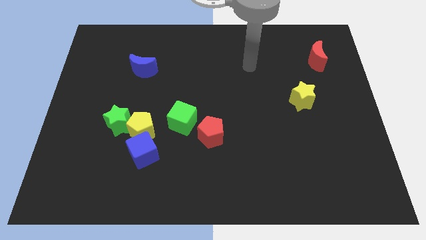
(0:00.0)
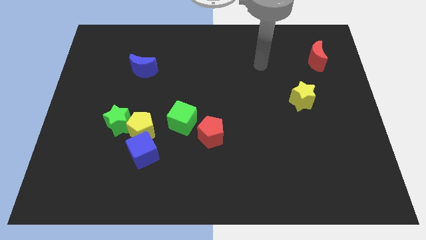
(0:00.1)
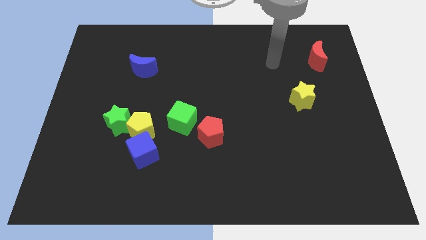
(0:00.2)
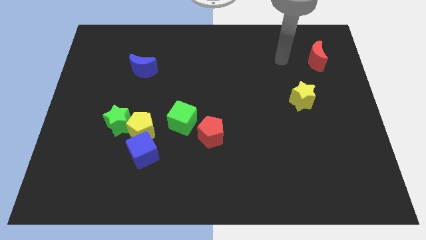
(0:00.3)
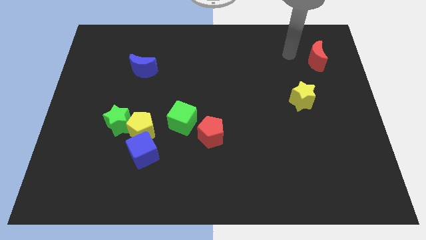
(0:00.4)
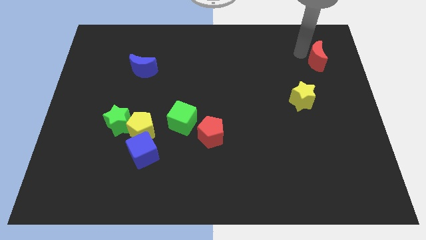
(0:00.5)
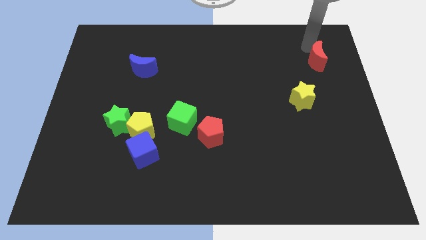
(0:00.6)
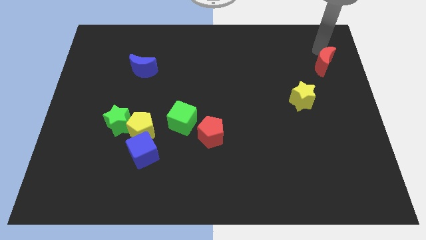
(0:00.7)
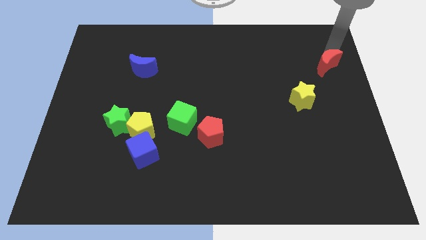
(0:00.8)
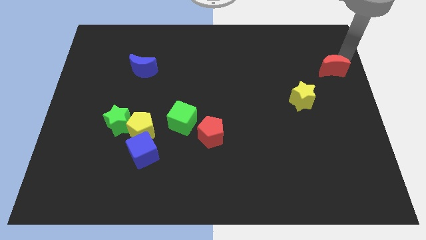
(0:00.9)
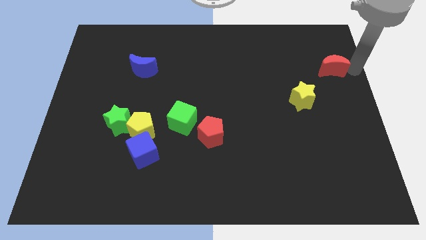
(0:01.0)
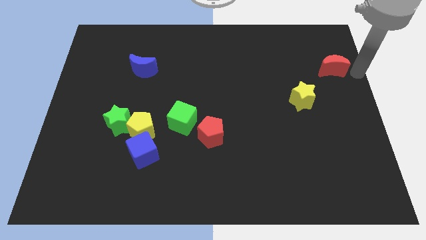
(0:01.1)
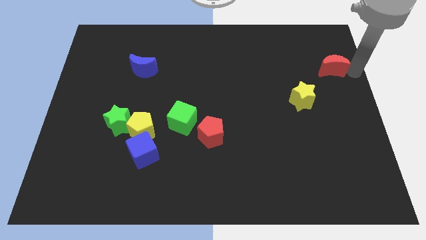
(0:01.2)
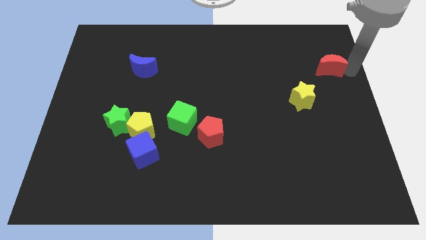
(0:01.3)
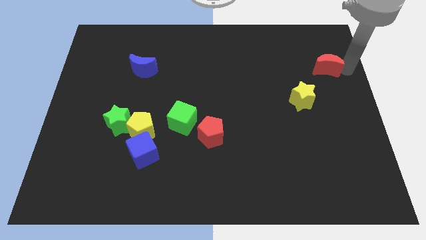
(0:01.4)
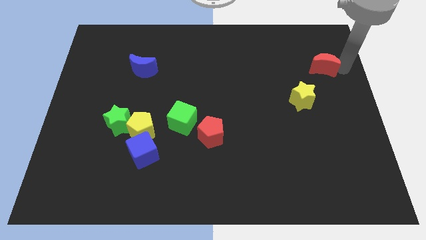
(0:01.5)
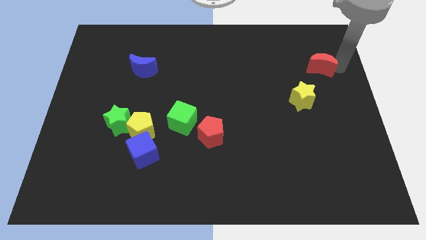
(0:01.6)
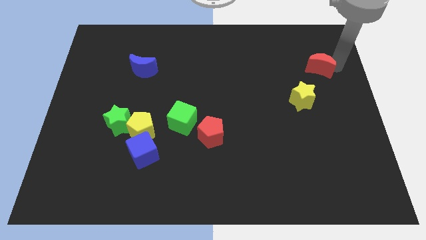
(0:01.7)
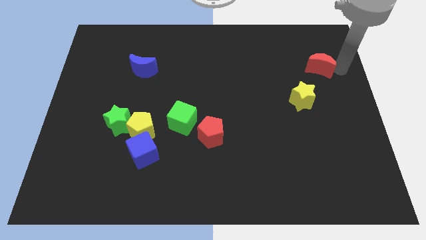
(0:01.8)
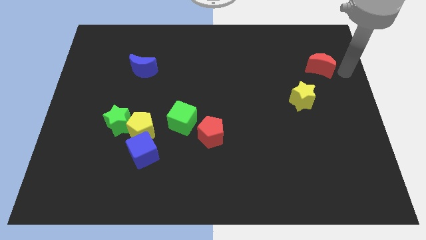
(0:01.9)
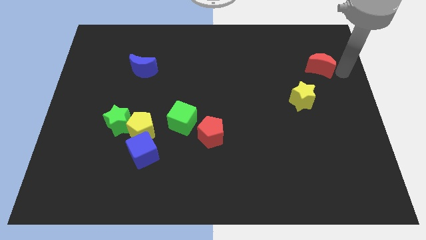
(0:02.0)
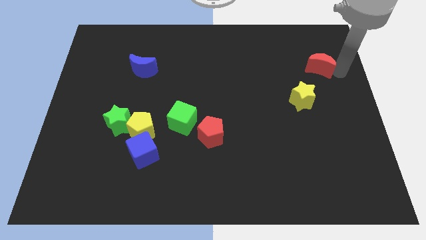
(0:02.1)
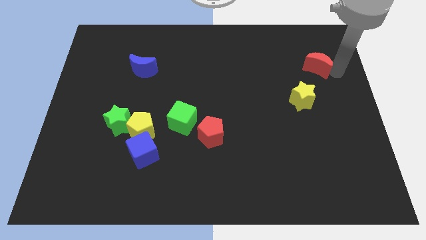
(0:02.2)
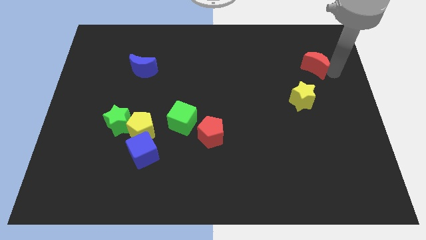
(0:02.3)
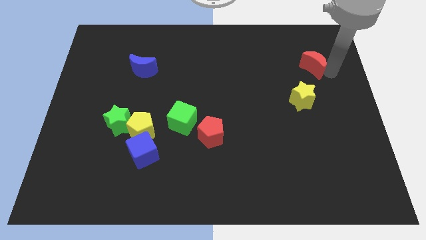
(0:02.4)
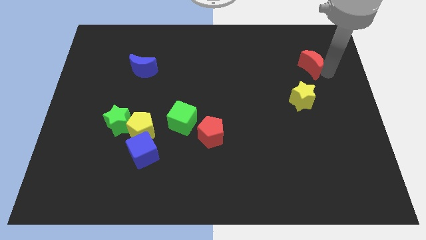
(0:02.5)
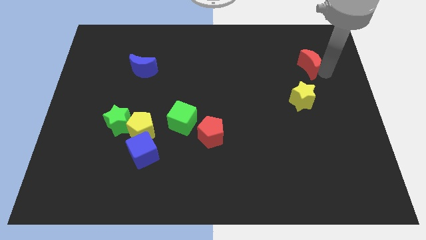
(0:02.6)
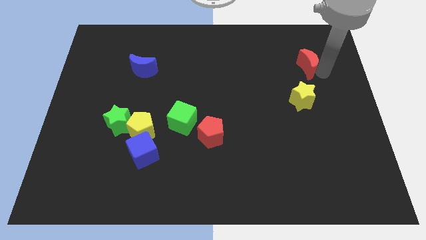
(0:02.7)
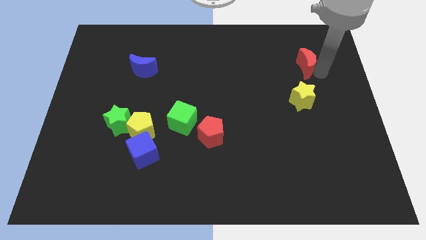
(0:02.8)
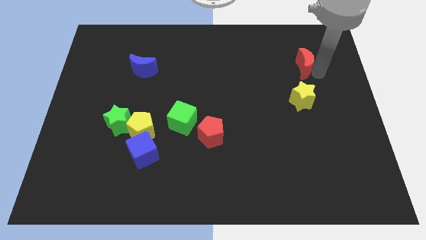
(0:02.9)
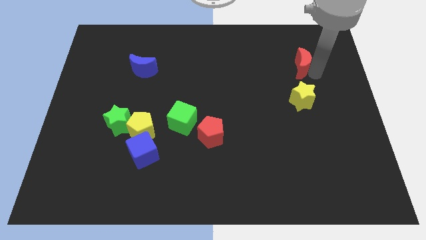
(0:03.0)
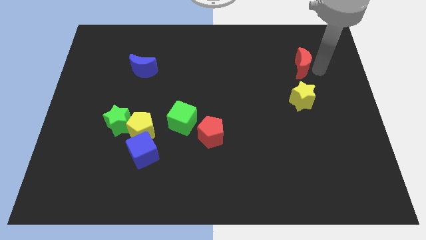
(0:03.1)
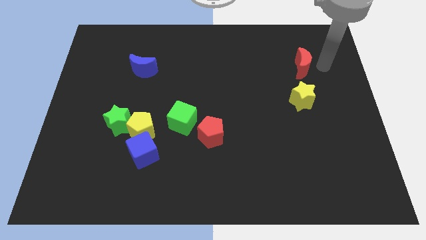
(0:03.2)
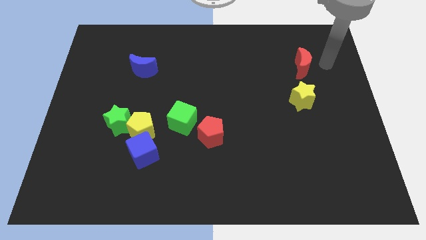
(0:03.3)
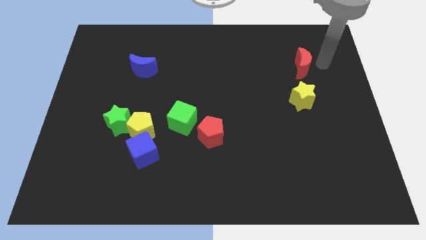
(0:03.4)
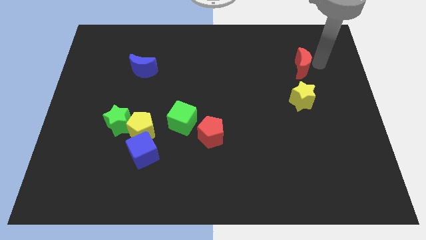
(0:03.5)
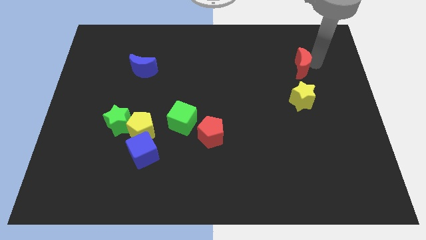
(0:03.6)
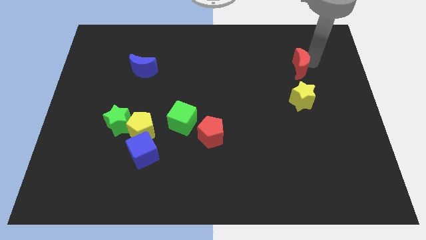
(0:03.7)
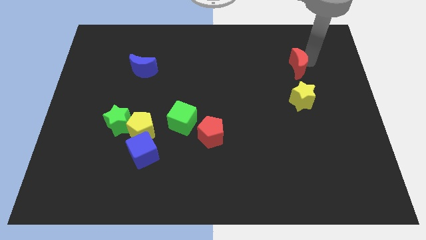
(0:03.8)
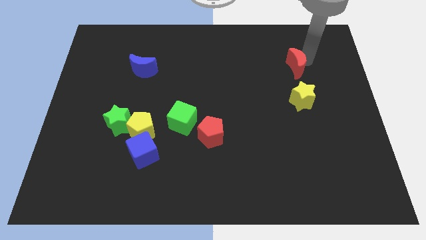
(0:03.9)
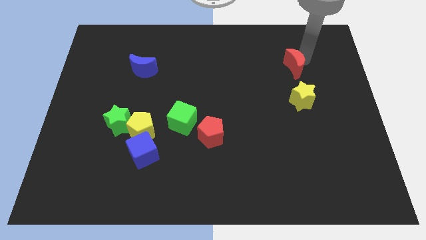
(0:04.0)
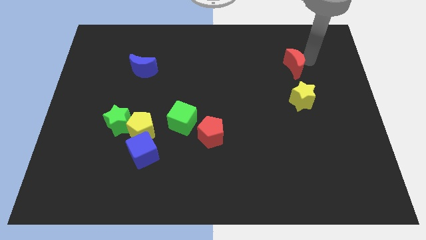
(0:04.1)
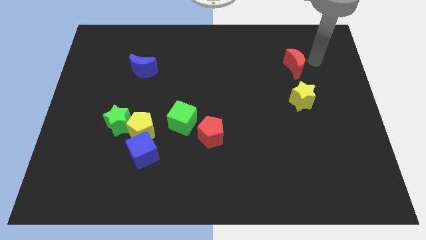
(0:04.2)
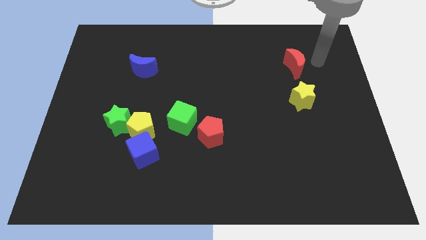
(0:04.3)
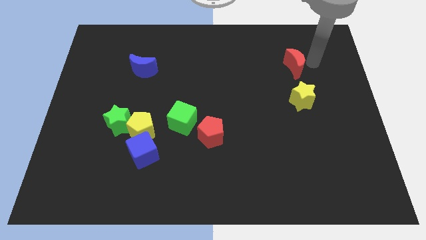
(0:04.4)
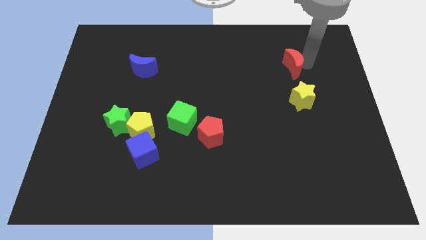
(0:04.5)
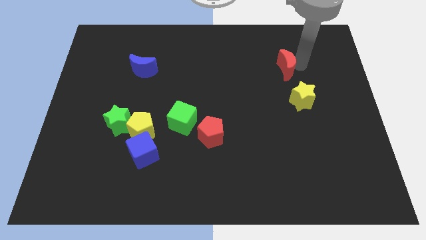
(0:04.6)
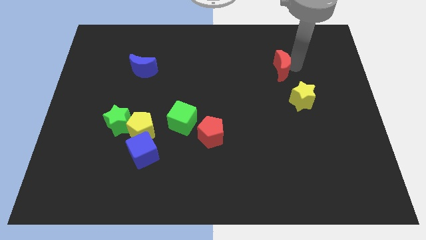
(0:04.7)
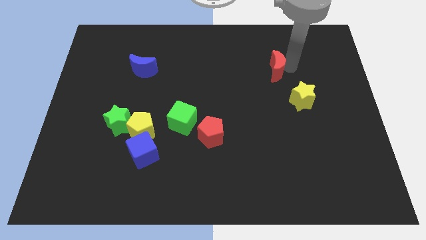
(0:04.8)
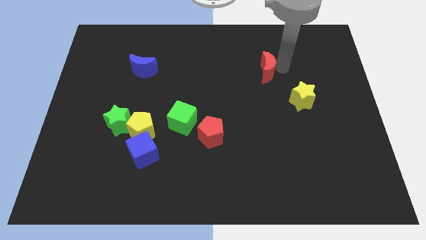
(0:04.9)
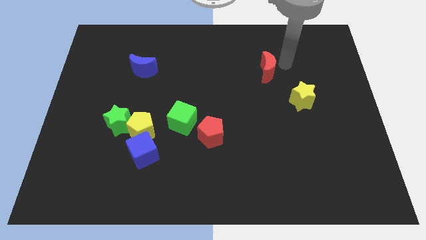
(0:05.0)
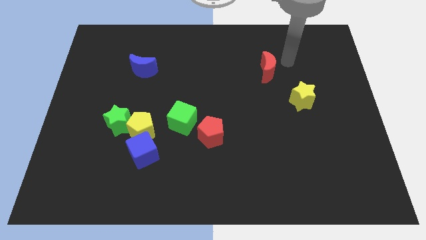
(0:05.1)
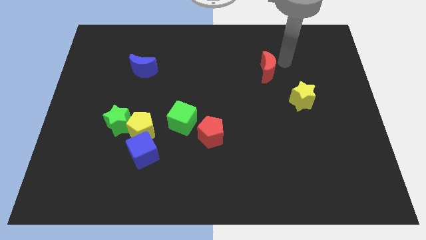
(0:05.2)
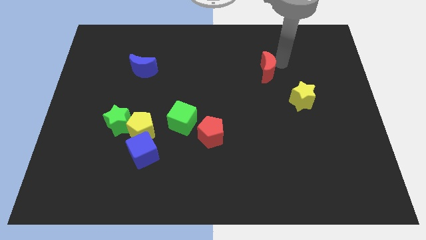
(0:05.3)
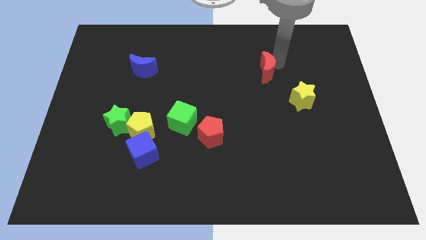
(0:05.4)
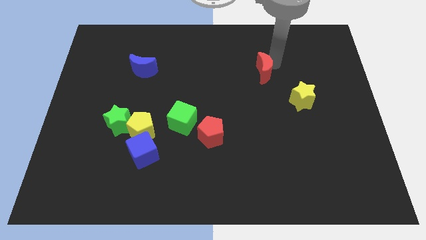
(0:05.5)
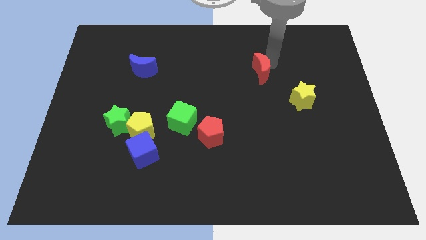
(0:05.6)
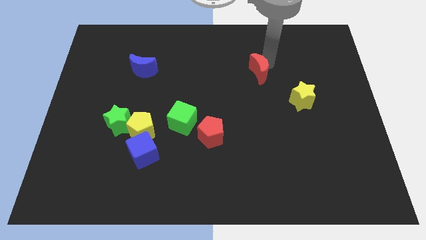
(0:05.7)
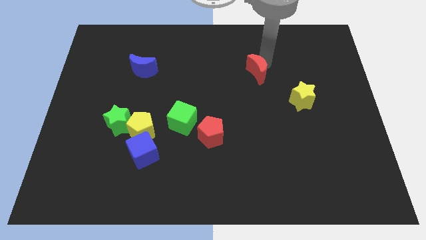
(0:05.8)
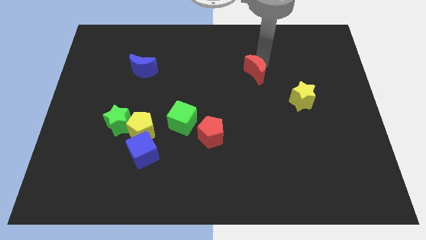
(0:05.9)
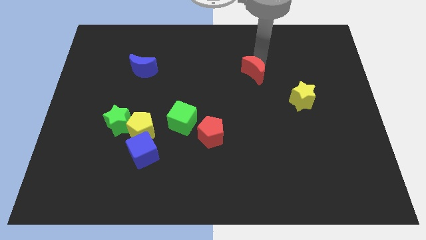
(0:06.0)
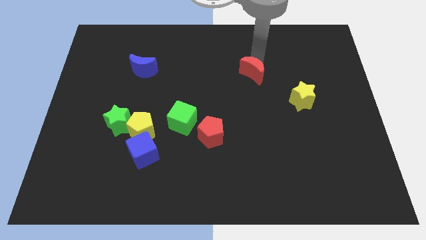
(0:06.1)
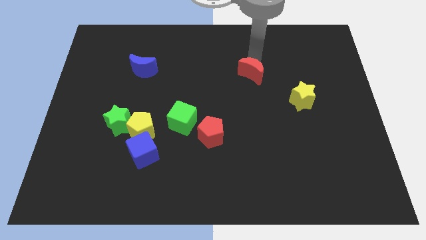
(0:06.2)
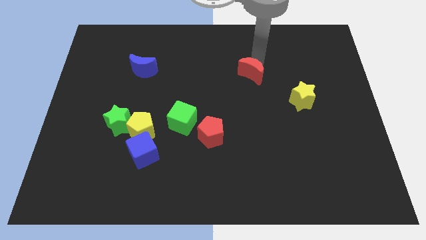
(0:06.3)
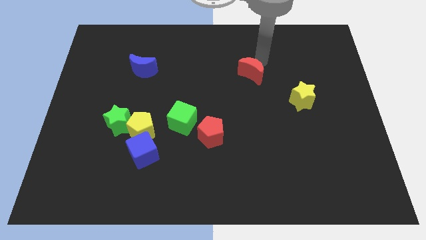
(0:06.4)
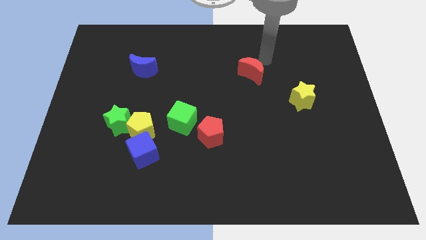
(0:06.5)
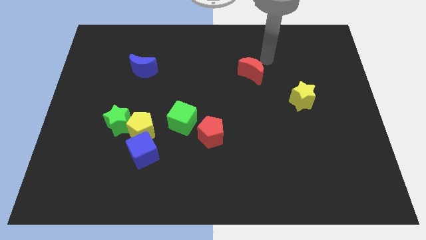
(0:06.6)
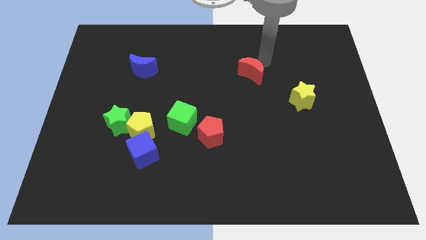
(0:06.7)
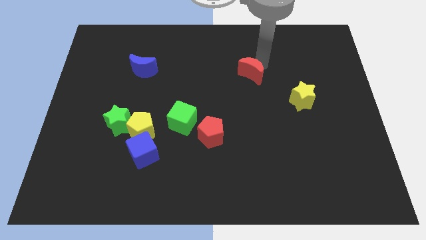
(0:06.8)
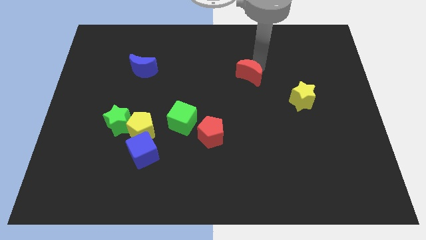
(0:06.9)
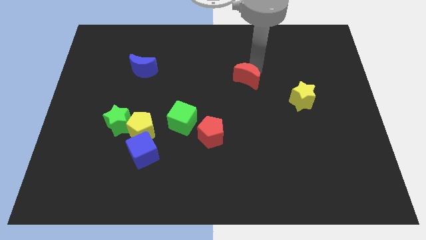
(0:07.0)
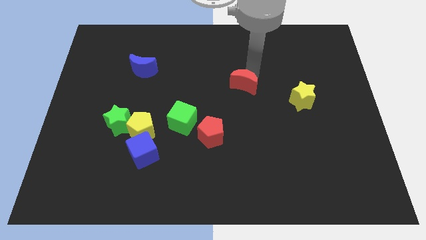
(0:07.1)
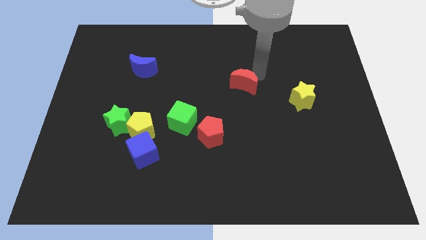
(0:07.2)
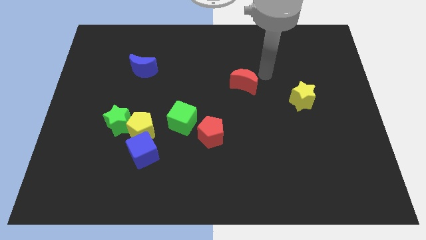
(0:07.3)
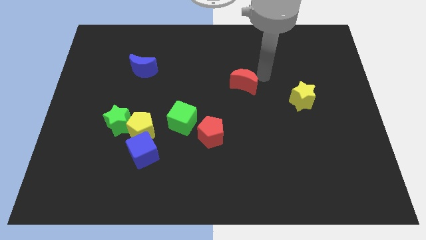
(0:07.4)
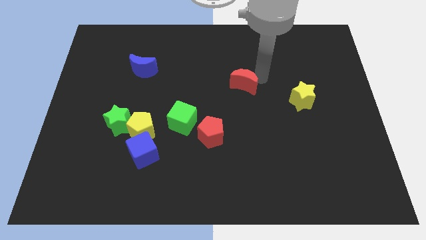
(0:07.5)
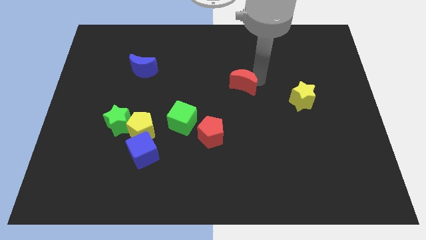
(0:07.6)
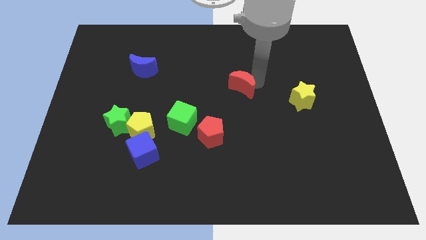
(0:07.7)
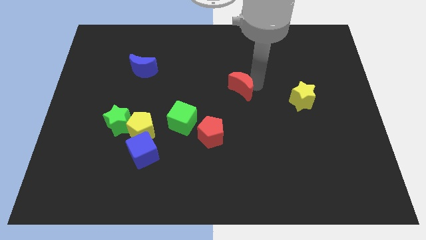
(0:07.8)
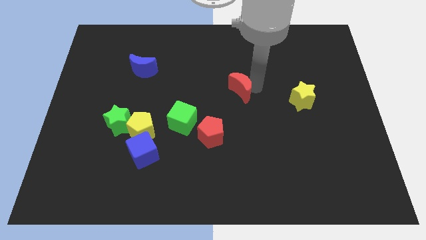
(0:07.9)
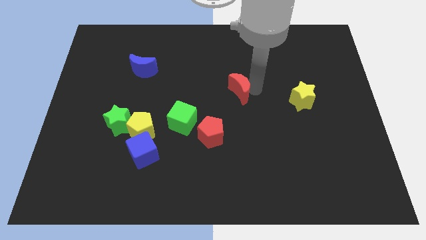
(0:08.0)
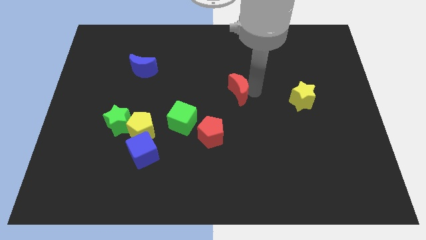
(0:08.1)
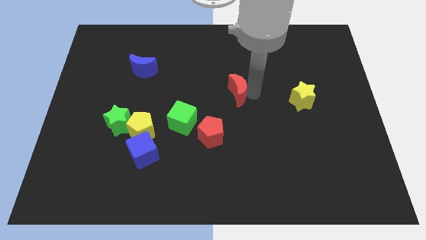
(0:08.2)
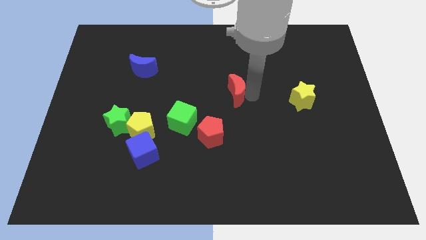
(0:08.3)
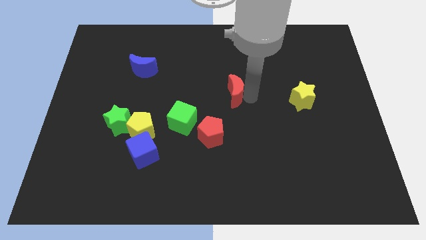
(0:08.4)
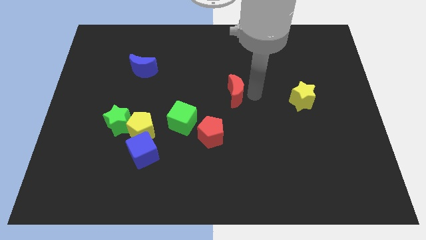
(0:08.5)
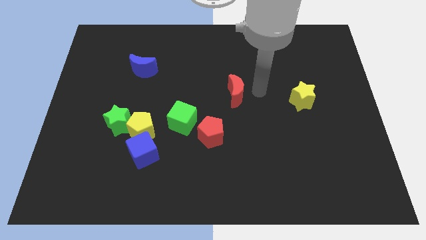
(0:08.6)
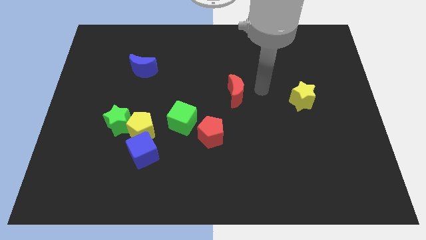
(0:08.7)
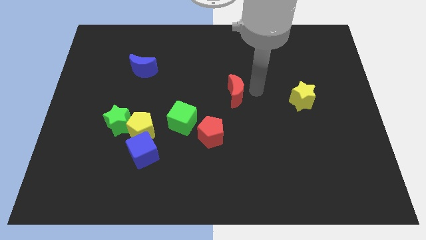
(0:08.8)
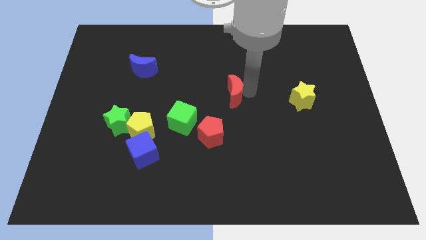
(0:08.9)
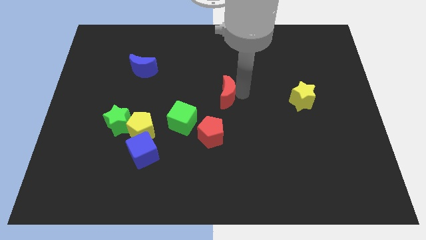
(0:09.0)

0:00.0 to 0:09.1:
slide the red moon to the top side of the red pentagon
